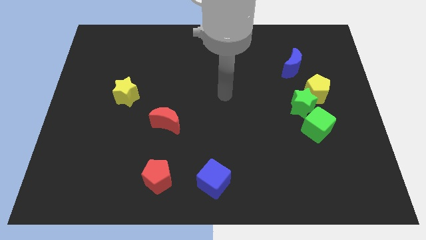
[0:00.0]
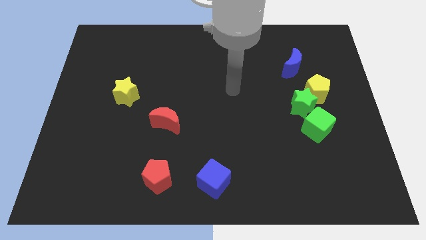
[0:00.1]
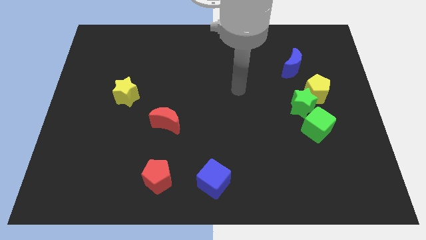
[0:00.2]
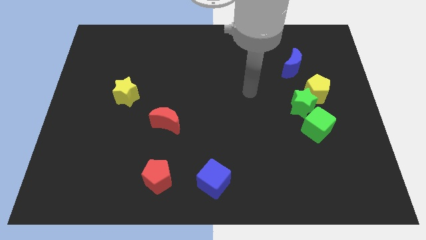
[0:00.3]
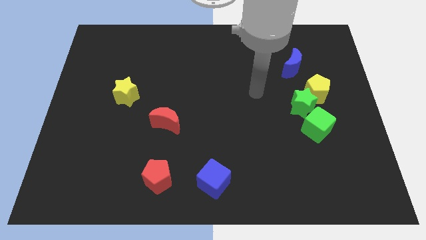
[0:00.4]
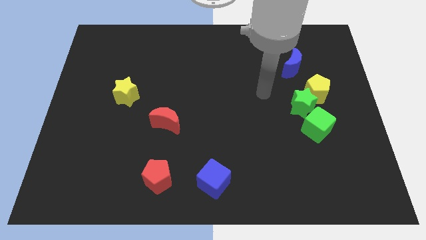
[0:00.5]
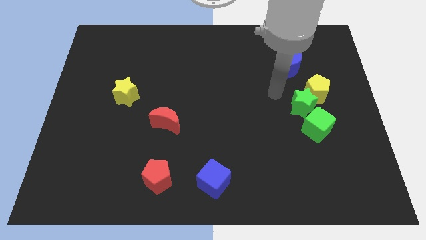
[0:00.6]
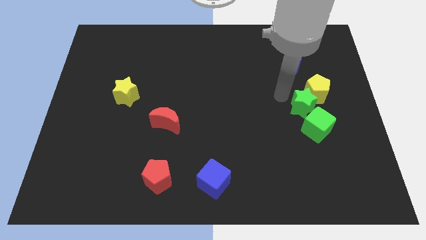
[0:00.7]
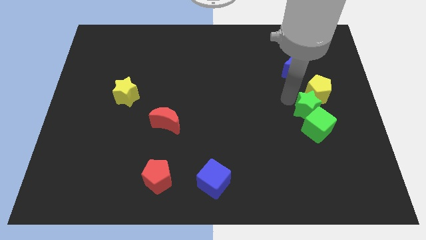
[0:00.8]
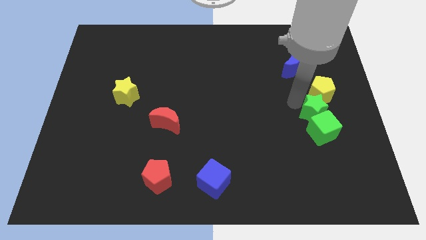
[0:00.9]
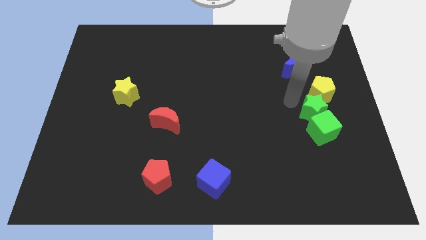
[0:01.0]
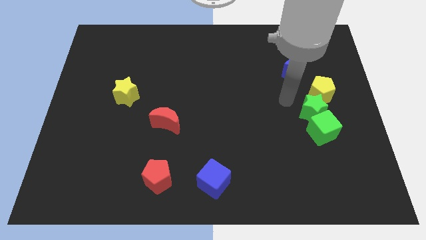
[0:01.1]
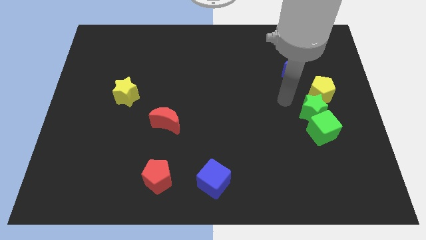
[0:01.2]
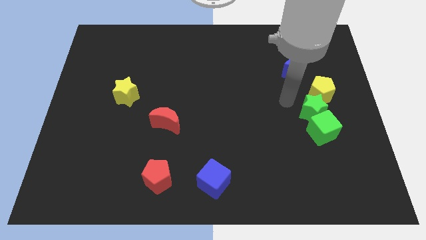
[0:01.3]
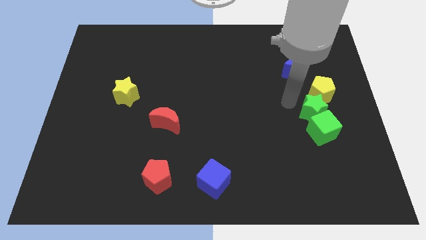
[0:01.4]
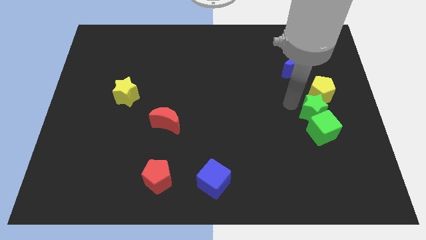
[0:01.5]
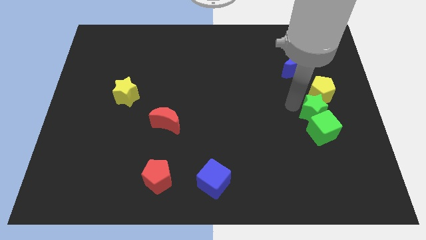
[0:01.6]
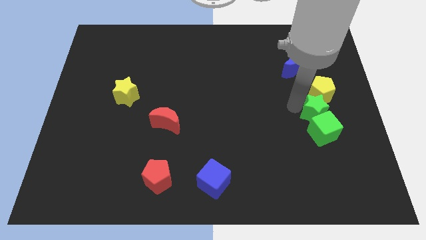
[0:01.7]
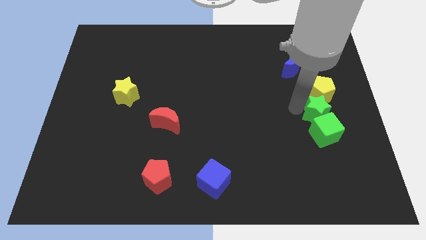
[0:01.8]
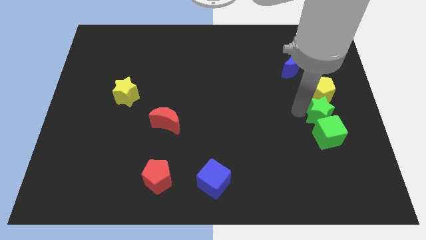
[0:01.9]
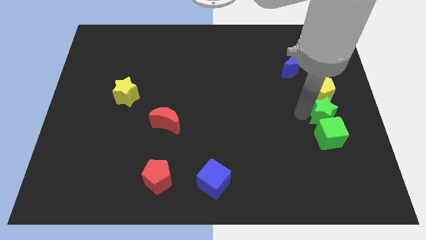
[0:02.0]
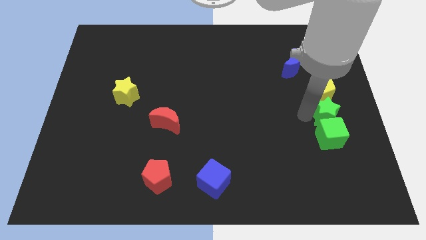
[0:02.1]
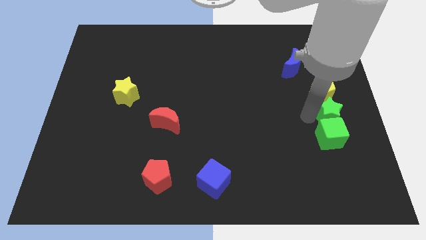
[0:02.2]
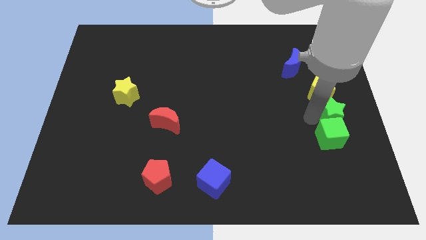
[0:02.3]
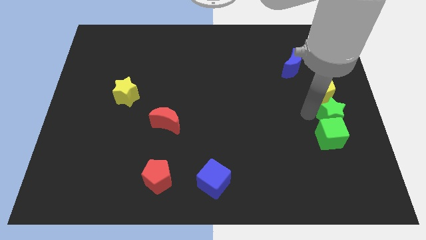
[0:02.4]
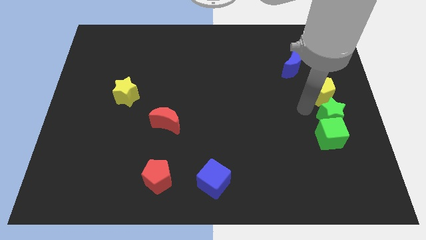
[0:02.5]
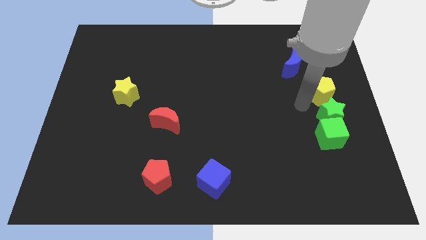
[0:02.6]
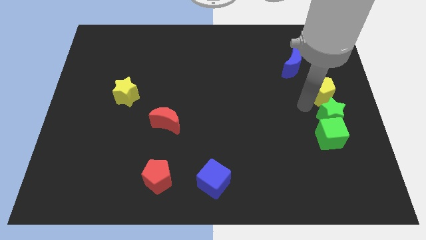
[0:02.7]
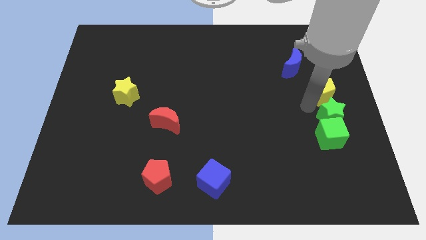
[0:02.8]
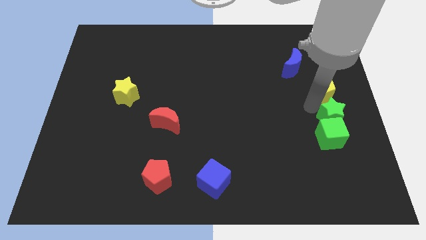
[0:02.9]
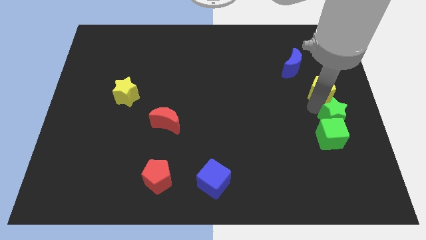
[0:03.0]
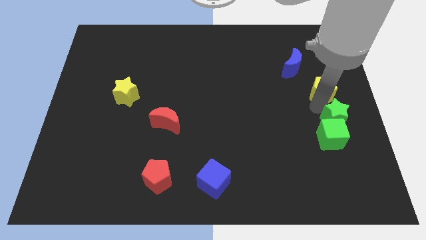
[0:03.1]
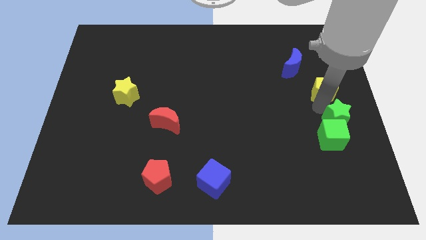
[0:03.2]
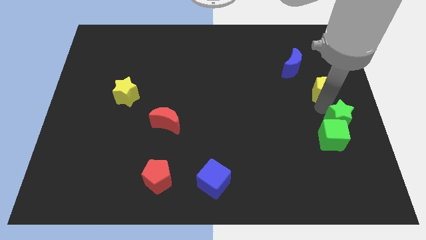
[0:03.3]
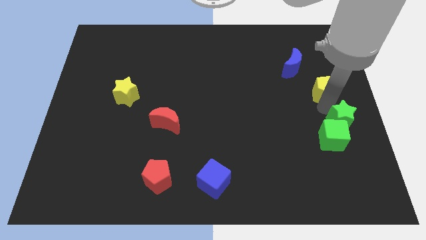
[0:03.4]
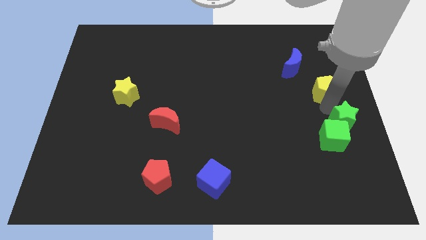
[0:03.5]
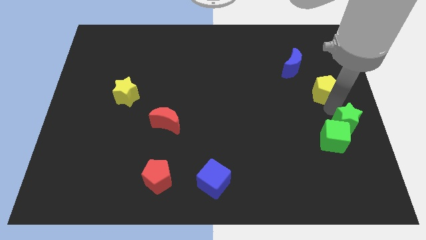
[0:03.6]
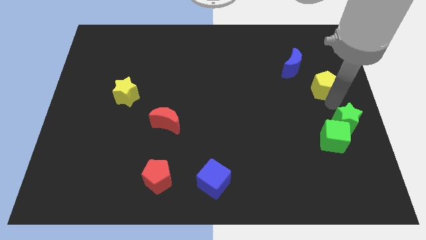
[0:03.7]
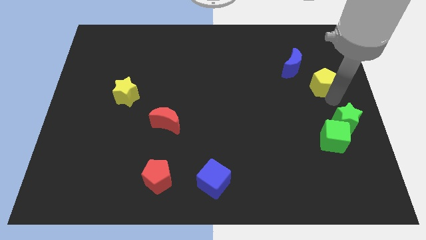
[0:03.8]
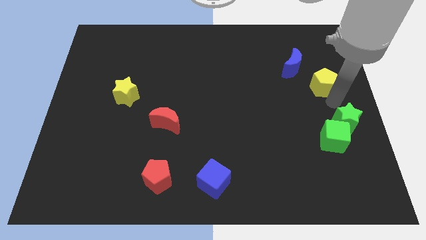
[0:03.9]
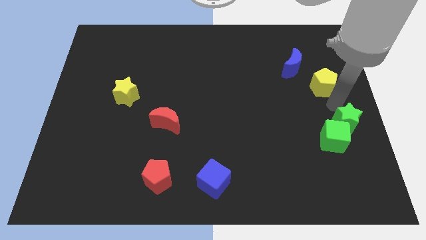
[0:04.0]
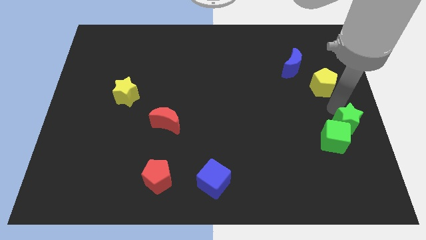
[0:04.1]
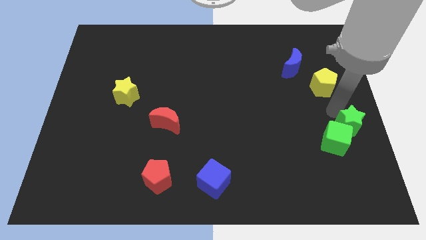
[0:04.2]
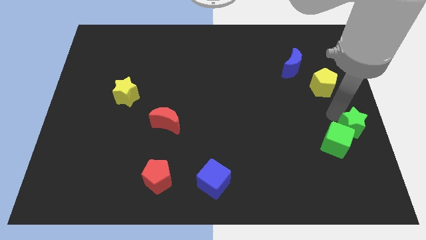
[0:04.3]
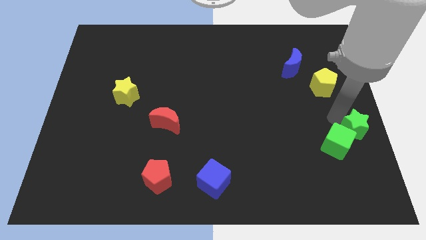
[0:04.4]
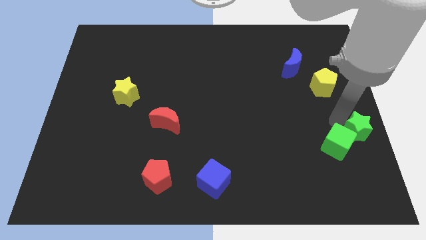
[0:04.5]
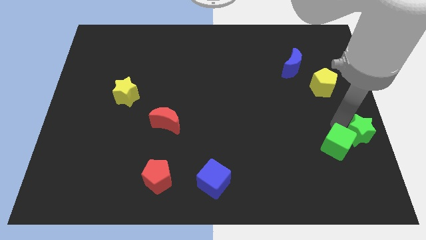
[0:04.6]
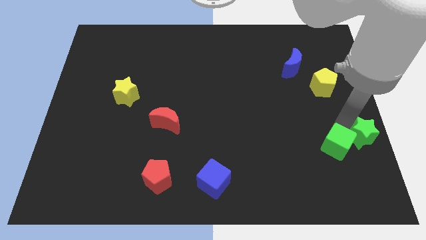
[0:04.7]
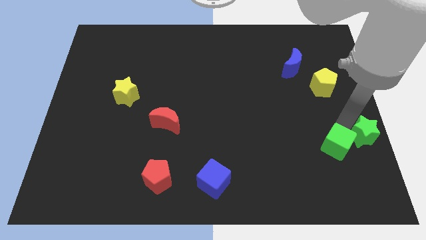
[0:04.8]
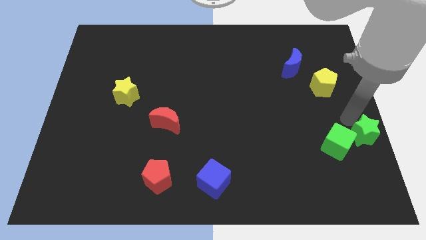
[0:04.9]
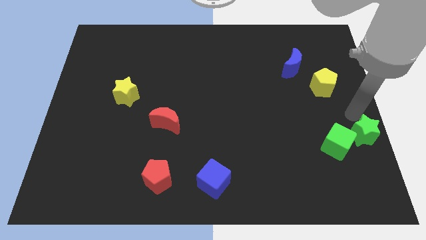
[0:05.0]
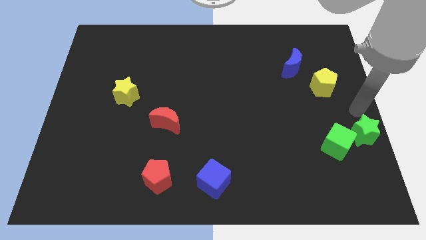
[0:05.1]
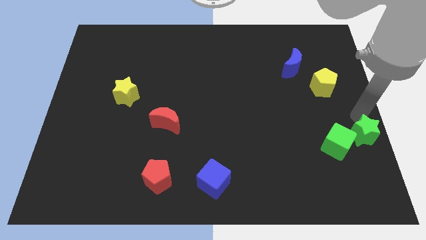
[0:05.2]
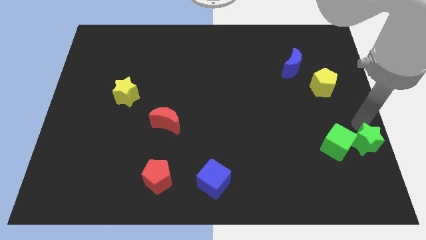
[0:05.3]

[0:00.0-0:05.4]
move the green star to the bottom right side of the green cube

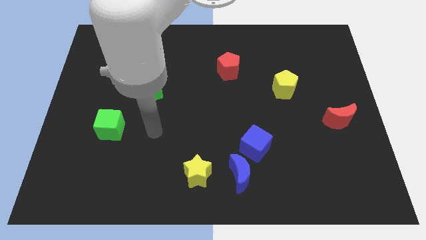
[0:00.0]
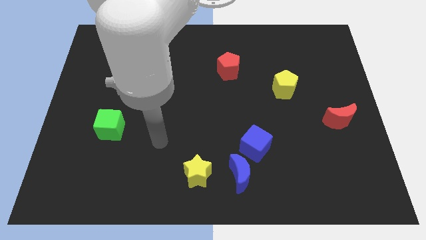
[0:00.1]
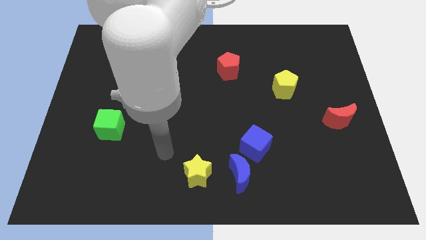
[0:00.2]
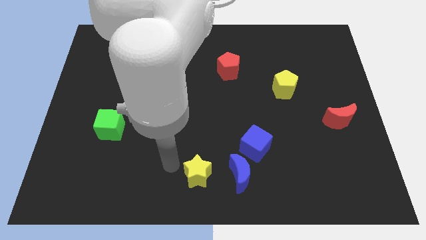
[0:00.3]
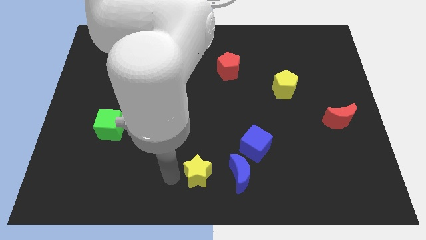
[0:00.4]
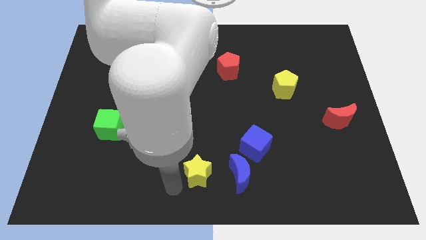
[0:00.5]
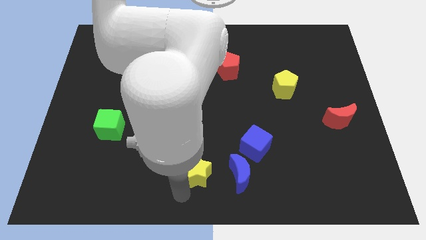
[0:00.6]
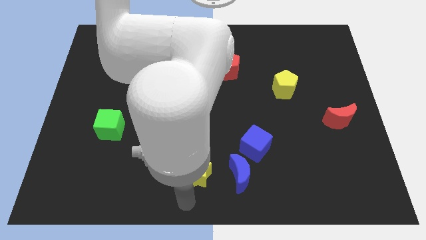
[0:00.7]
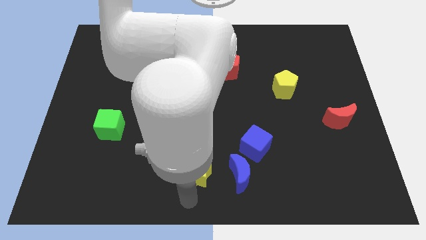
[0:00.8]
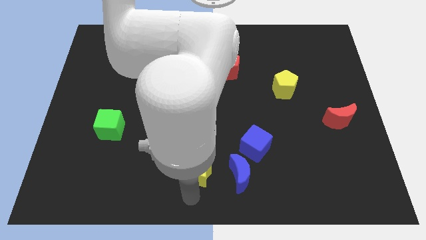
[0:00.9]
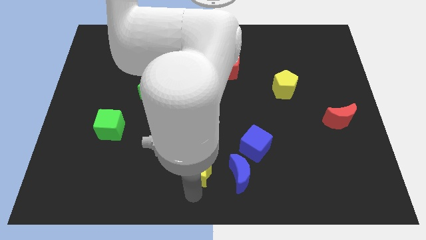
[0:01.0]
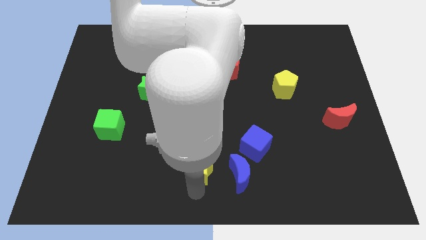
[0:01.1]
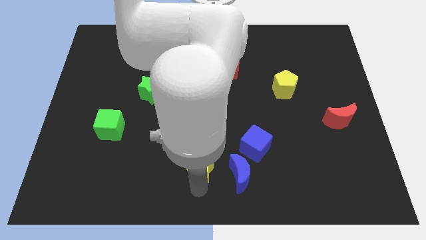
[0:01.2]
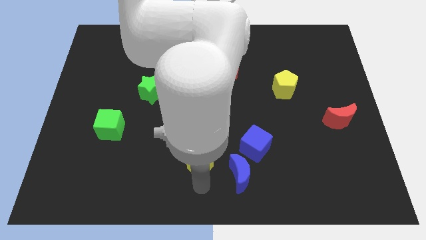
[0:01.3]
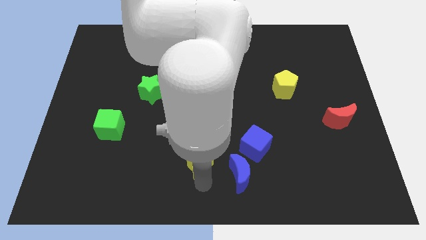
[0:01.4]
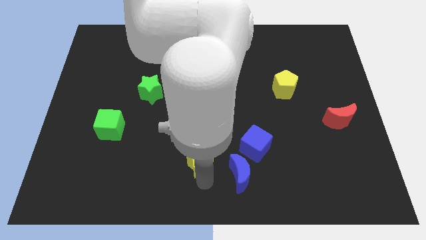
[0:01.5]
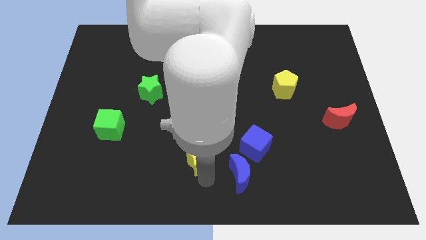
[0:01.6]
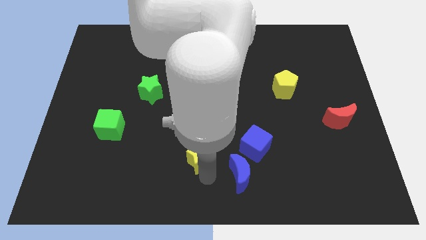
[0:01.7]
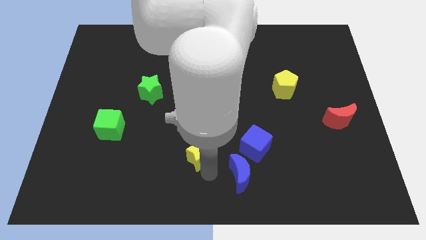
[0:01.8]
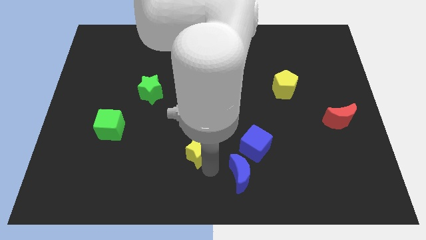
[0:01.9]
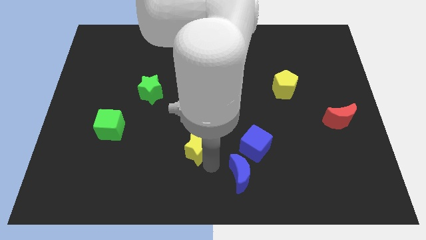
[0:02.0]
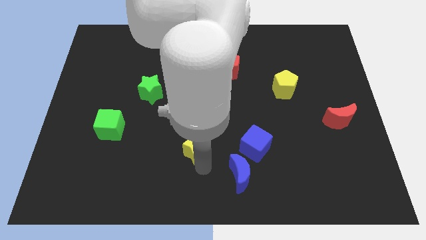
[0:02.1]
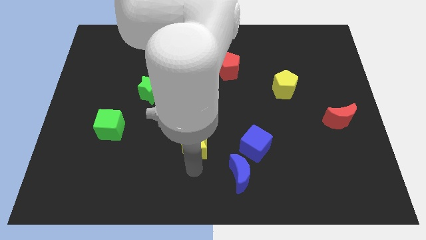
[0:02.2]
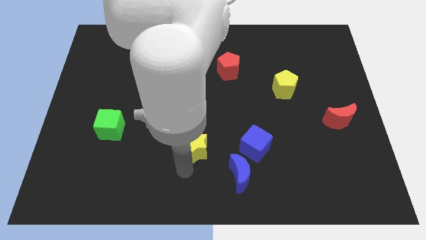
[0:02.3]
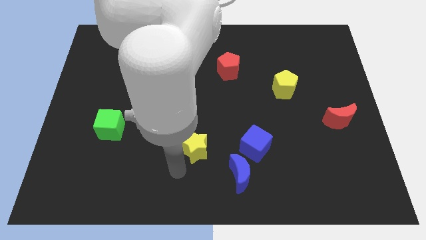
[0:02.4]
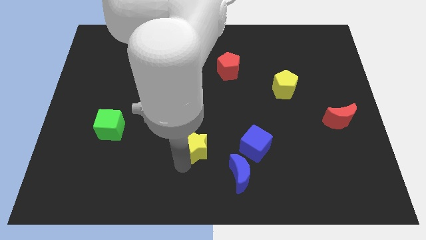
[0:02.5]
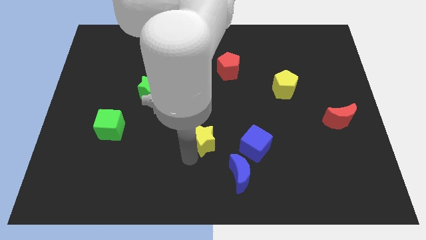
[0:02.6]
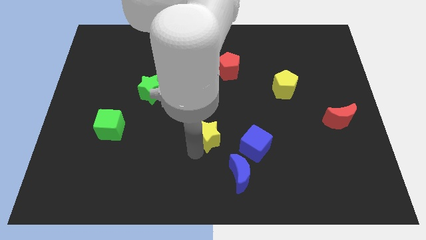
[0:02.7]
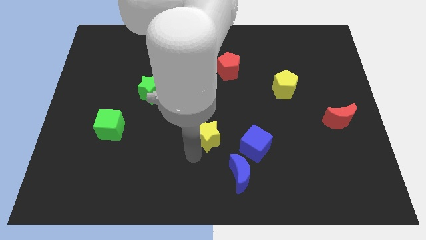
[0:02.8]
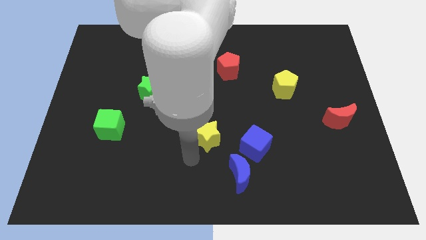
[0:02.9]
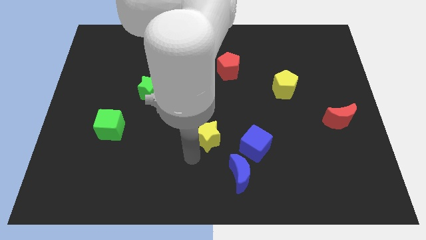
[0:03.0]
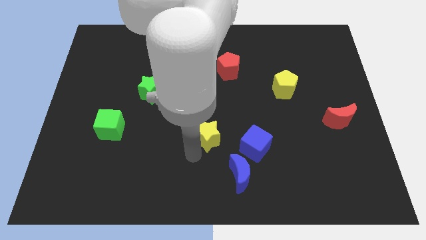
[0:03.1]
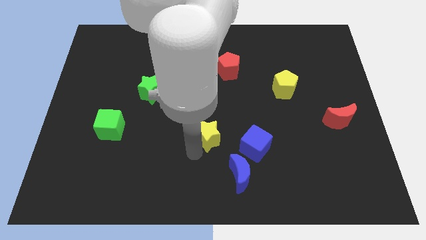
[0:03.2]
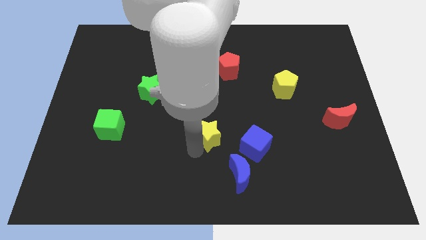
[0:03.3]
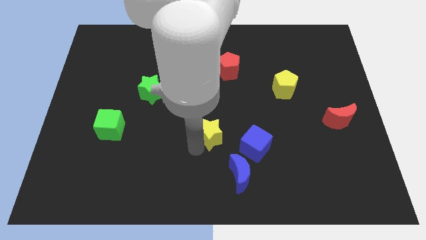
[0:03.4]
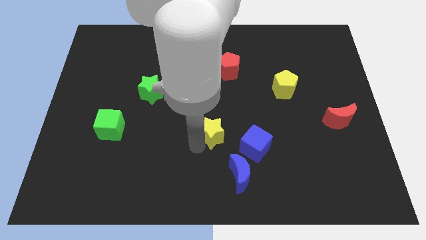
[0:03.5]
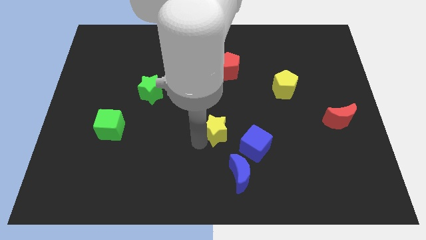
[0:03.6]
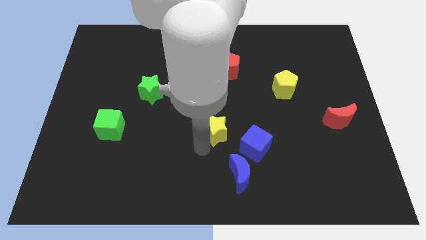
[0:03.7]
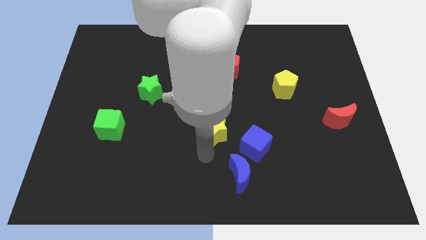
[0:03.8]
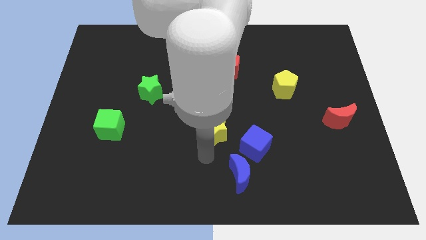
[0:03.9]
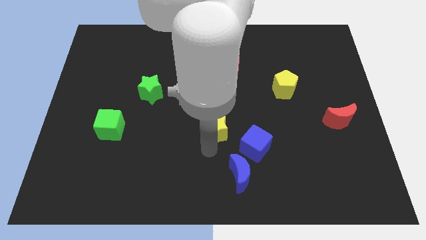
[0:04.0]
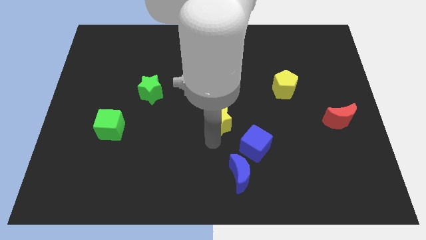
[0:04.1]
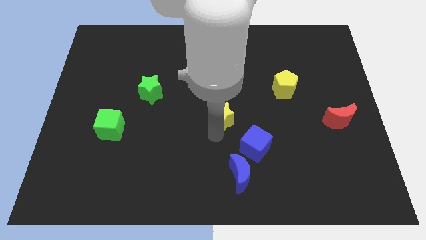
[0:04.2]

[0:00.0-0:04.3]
push the yellow star below the red pentagon
